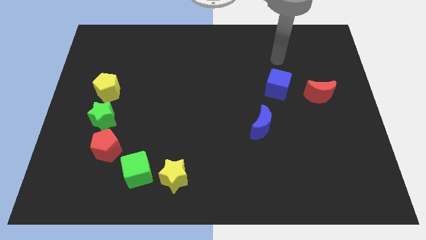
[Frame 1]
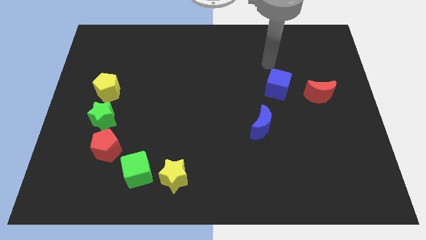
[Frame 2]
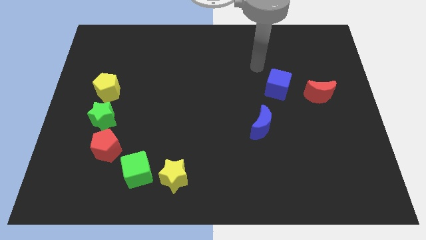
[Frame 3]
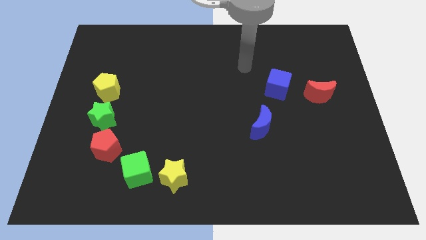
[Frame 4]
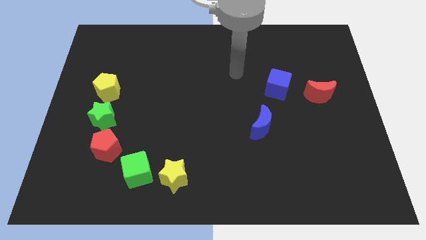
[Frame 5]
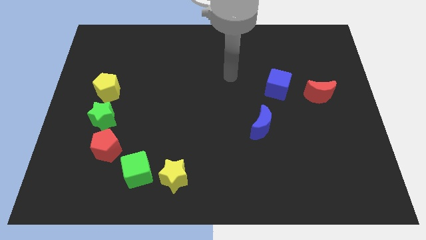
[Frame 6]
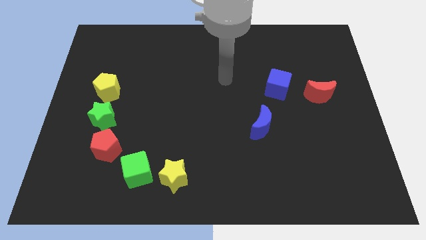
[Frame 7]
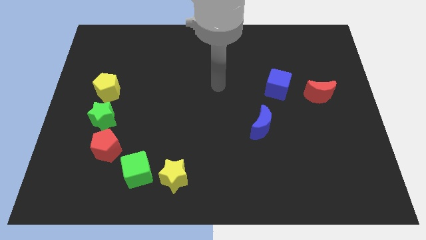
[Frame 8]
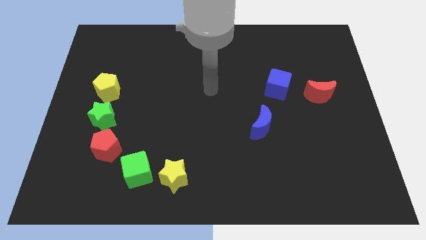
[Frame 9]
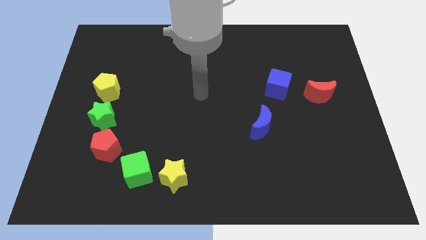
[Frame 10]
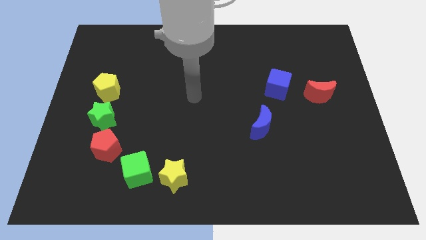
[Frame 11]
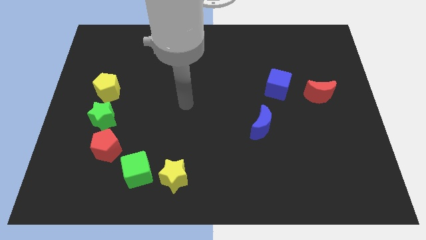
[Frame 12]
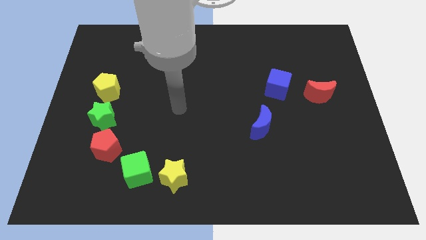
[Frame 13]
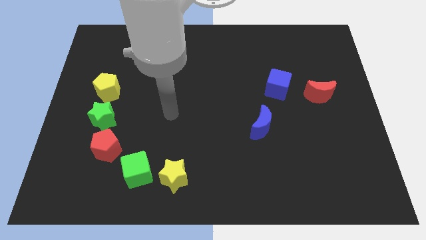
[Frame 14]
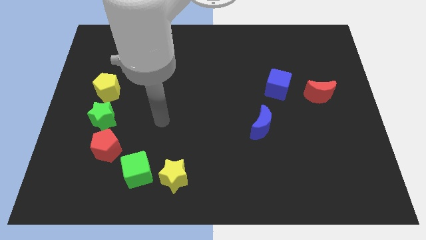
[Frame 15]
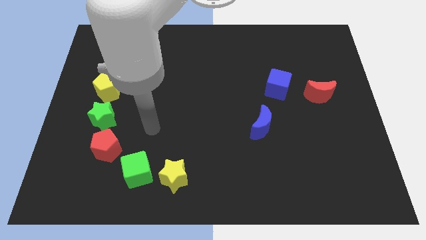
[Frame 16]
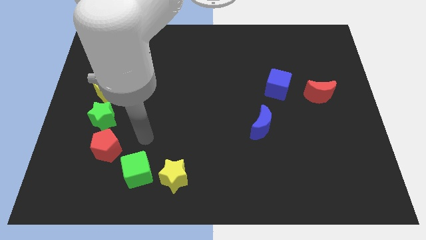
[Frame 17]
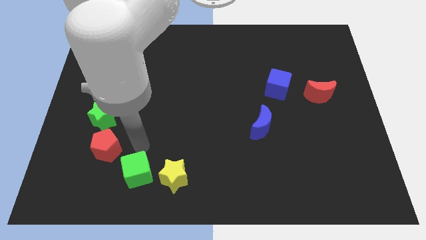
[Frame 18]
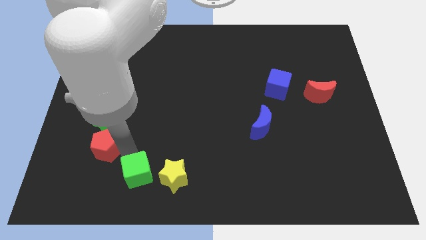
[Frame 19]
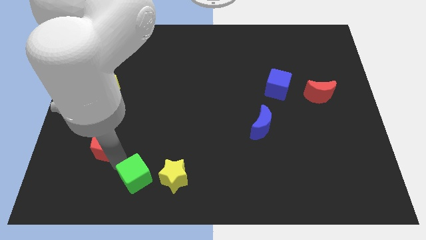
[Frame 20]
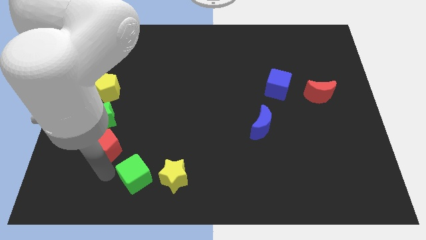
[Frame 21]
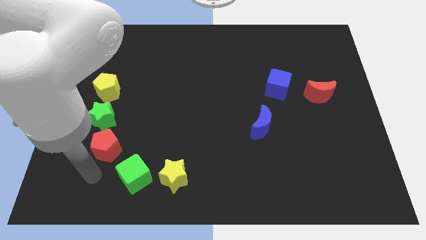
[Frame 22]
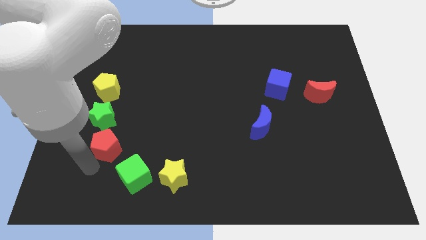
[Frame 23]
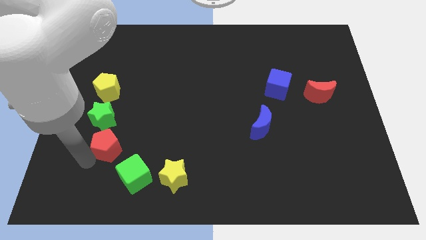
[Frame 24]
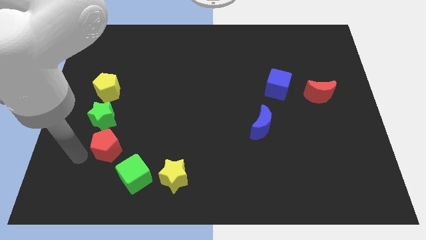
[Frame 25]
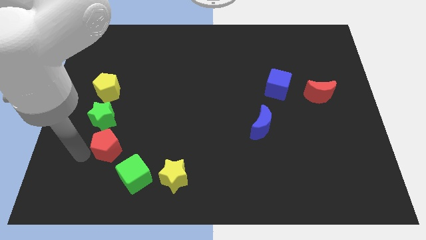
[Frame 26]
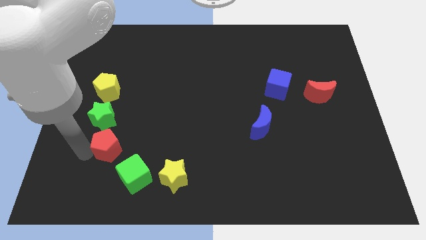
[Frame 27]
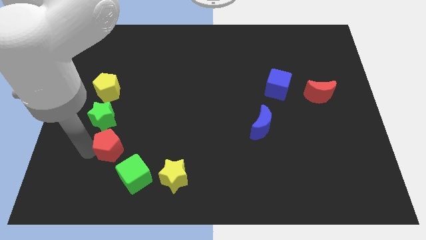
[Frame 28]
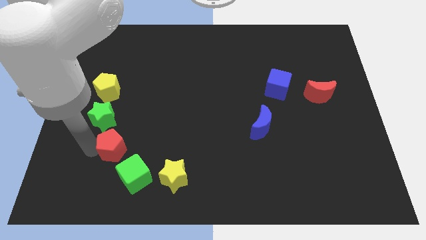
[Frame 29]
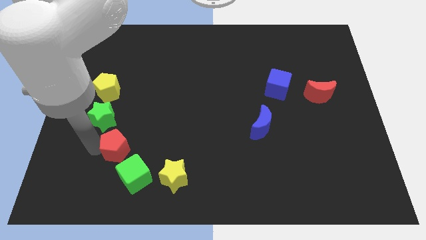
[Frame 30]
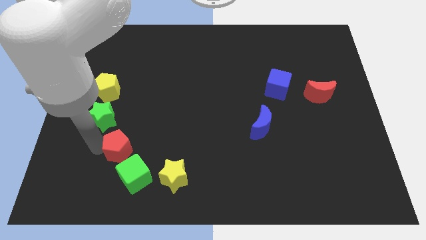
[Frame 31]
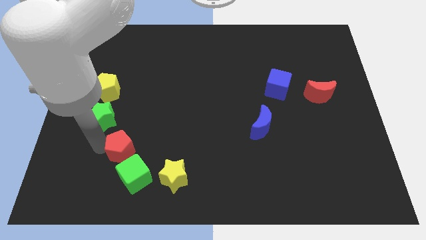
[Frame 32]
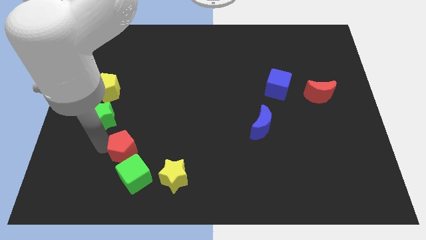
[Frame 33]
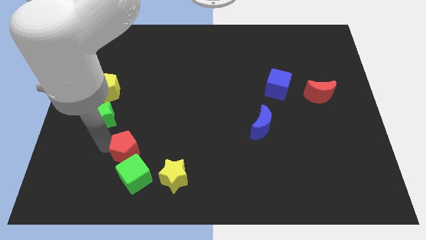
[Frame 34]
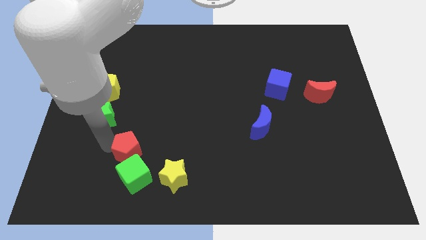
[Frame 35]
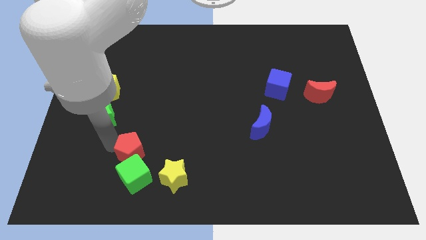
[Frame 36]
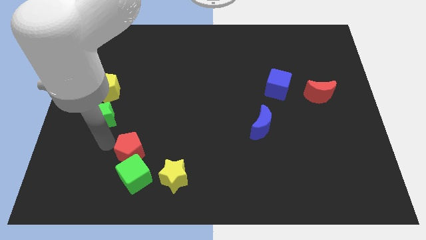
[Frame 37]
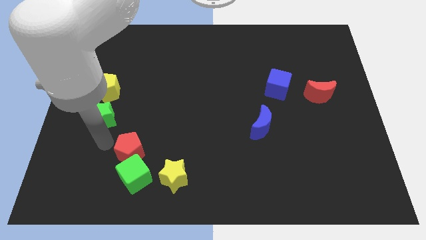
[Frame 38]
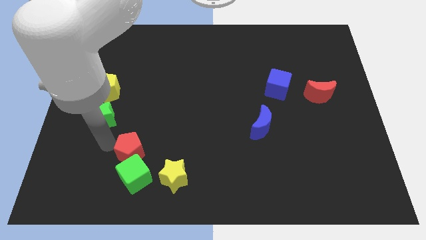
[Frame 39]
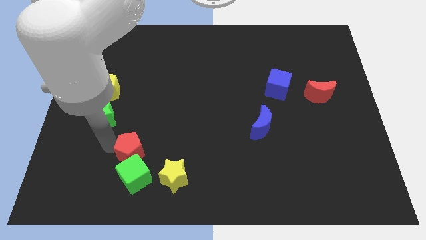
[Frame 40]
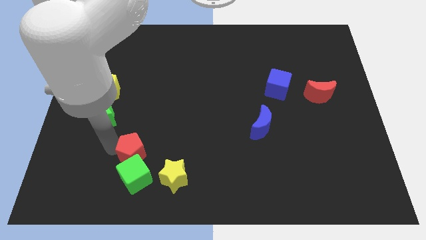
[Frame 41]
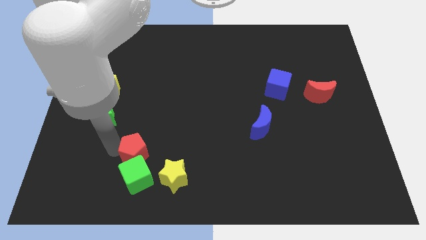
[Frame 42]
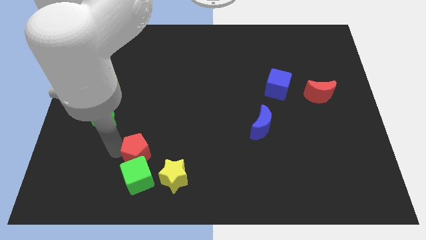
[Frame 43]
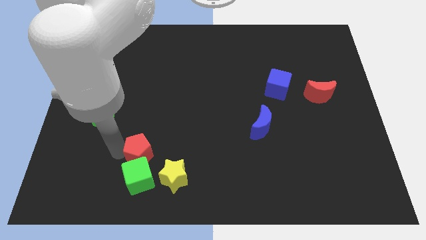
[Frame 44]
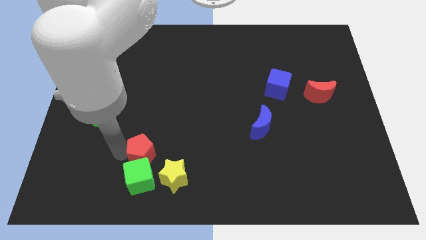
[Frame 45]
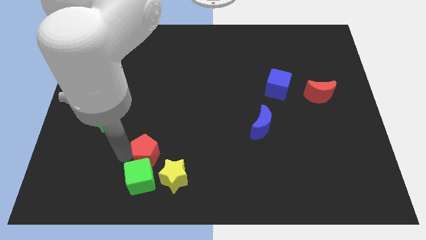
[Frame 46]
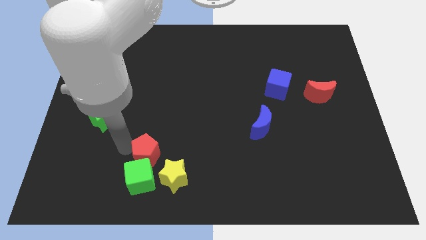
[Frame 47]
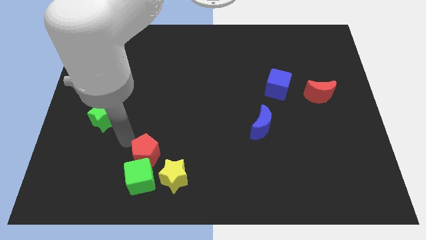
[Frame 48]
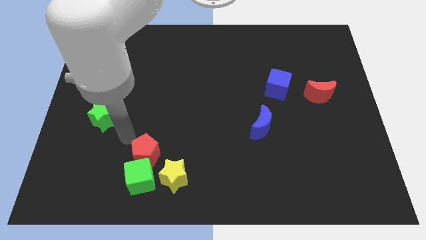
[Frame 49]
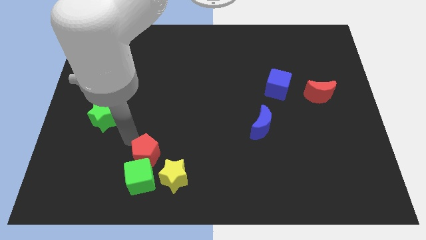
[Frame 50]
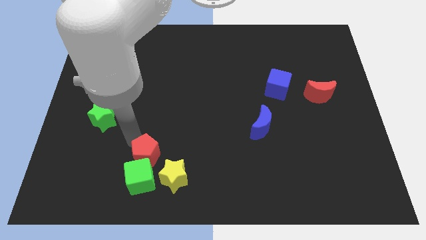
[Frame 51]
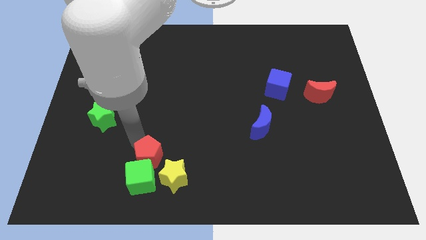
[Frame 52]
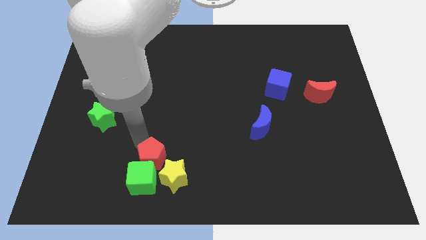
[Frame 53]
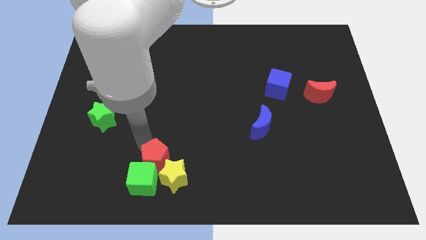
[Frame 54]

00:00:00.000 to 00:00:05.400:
move the red pentagon next to the yellow star

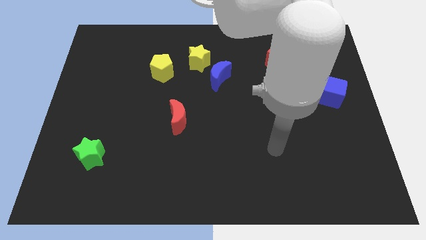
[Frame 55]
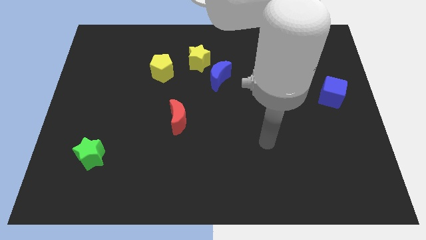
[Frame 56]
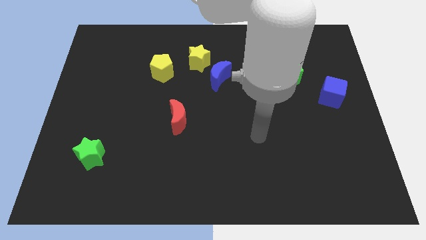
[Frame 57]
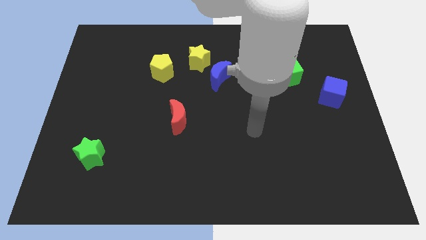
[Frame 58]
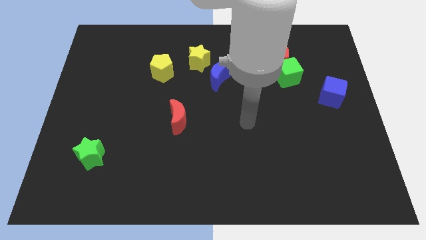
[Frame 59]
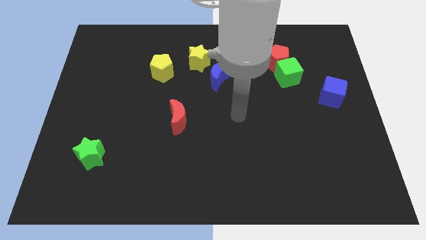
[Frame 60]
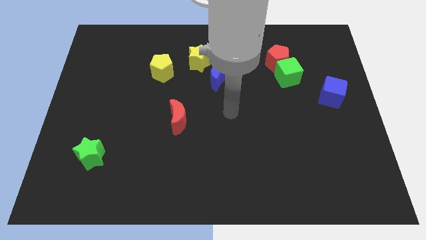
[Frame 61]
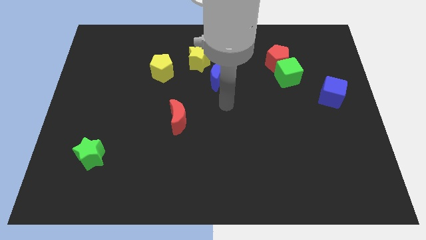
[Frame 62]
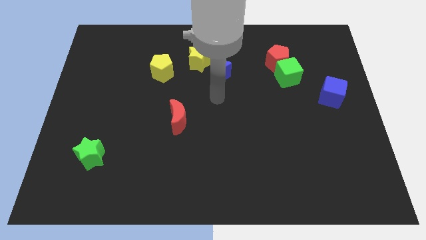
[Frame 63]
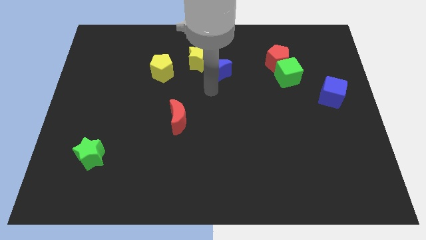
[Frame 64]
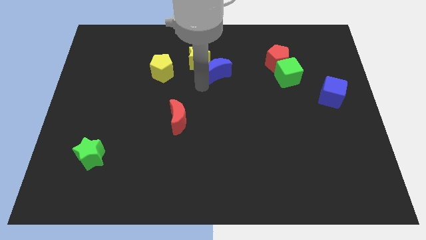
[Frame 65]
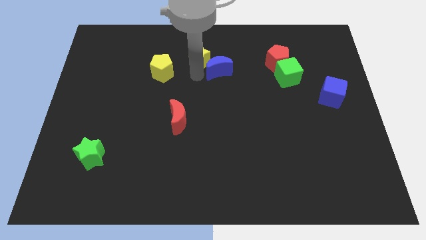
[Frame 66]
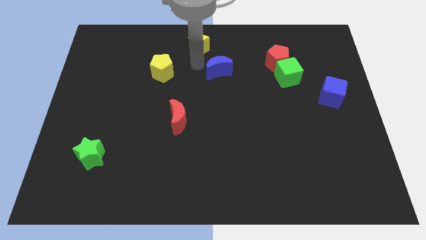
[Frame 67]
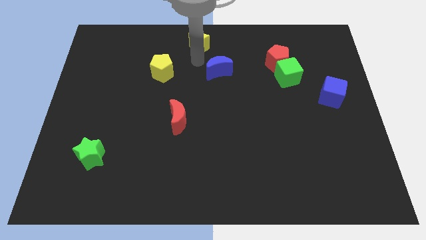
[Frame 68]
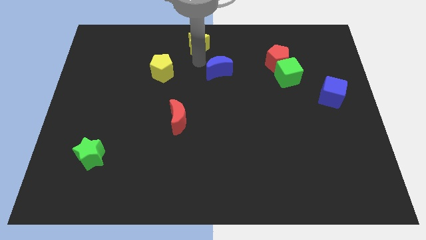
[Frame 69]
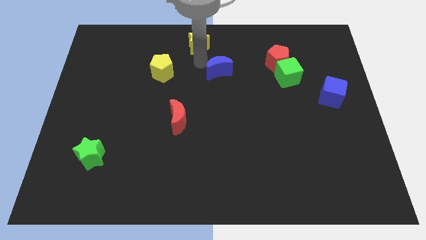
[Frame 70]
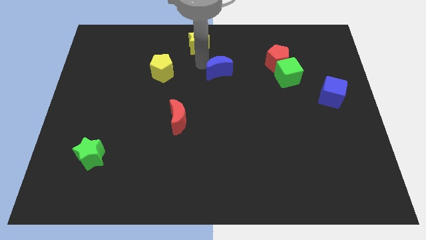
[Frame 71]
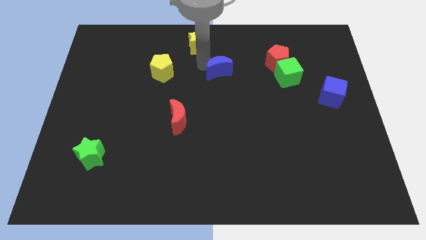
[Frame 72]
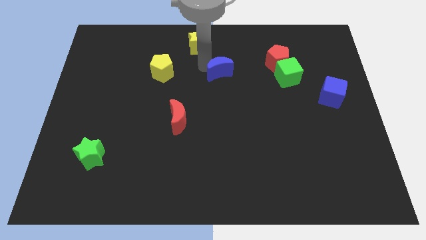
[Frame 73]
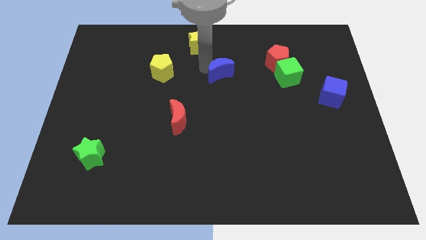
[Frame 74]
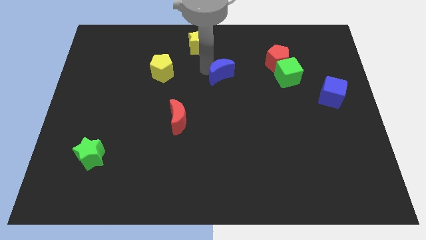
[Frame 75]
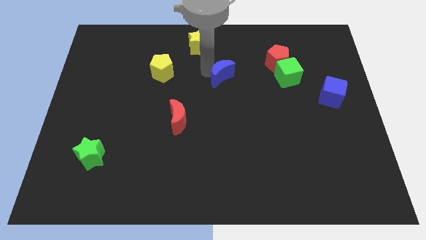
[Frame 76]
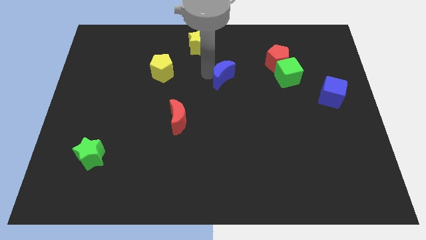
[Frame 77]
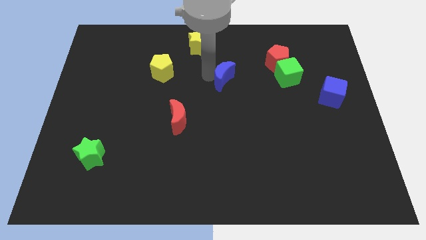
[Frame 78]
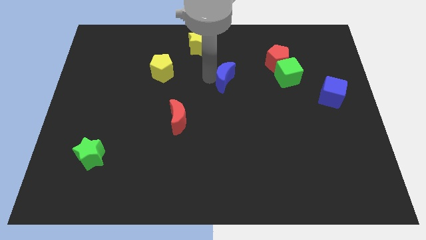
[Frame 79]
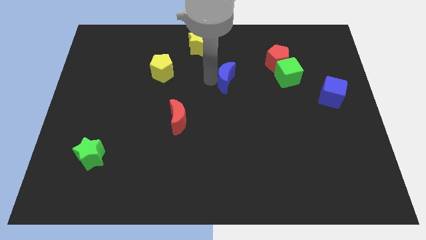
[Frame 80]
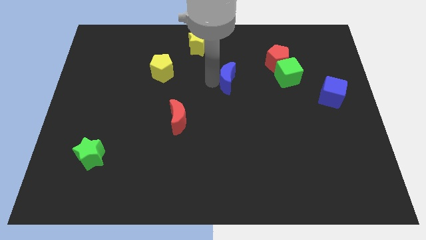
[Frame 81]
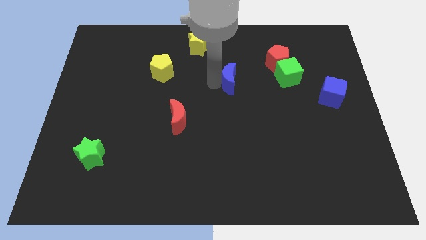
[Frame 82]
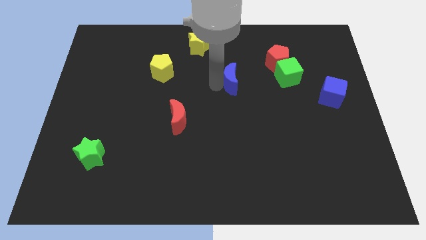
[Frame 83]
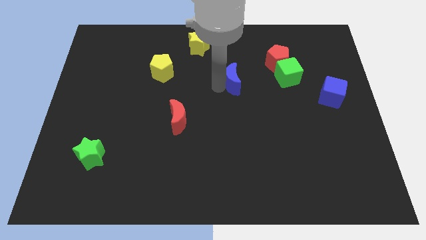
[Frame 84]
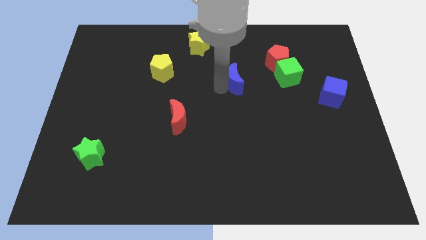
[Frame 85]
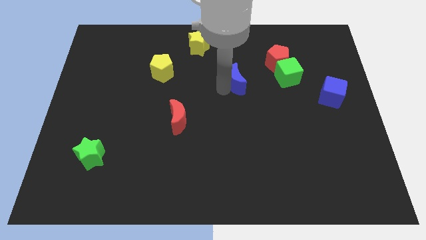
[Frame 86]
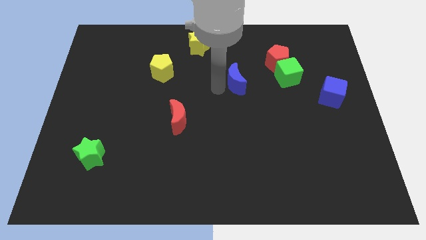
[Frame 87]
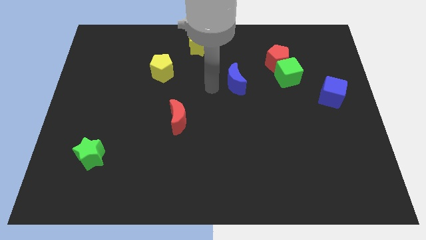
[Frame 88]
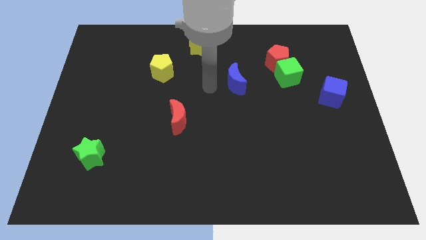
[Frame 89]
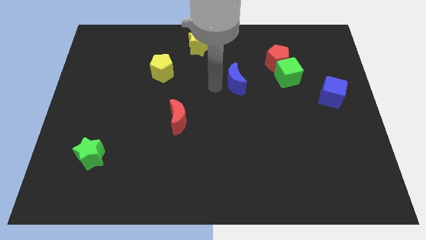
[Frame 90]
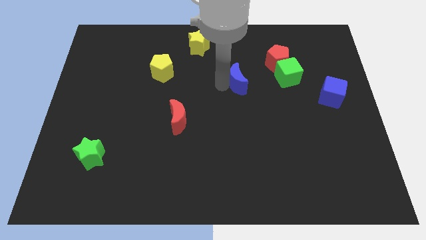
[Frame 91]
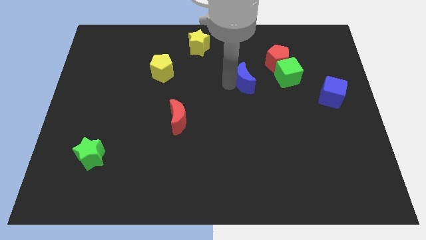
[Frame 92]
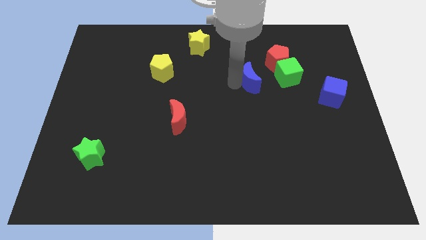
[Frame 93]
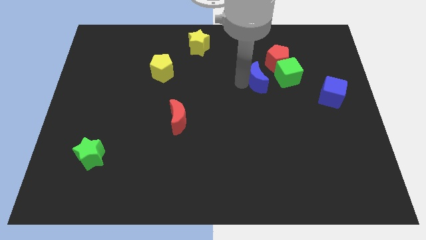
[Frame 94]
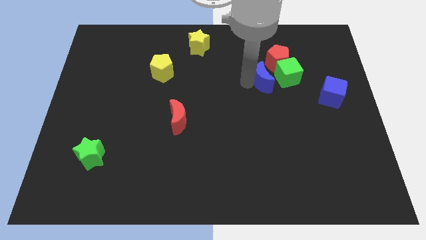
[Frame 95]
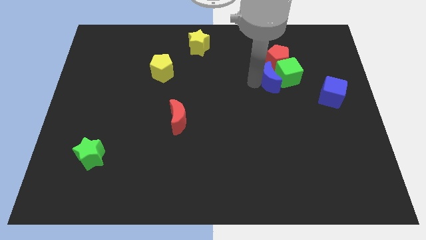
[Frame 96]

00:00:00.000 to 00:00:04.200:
push the blue moon towards the green cube
